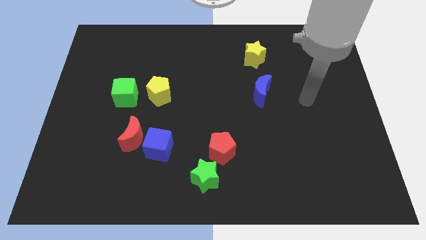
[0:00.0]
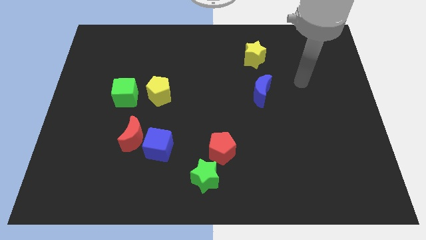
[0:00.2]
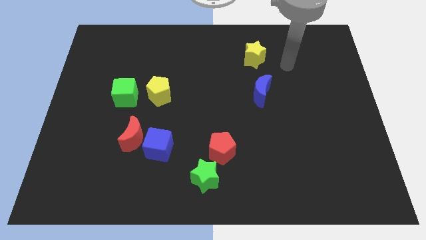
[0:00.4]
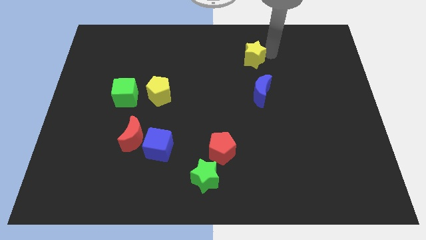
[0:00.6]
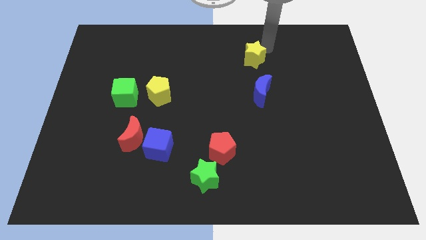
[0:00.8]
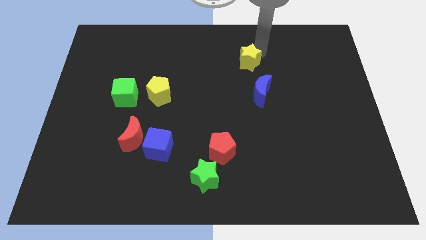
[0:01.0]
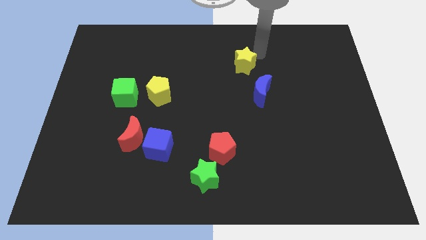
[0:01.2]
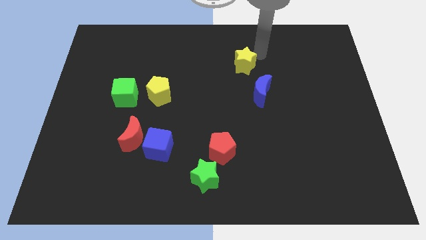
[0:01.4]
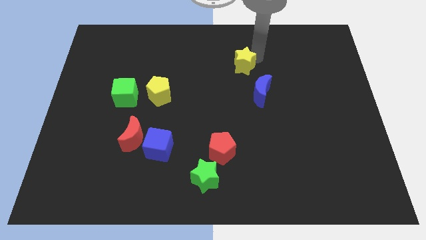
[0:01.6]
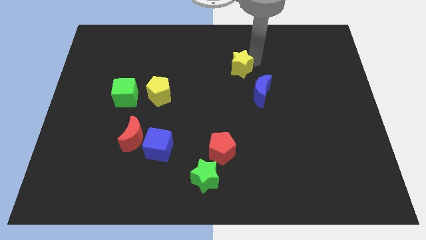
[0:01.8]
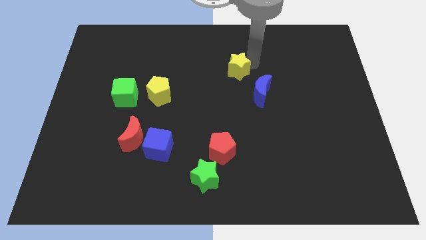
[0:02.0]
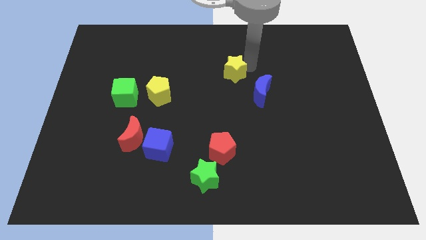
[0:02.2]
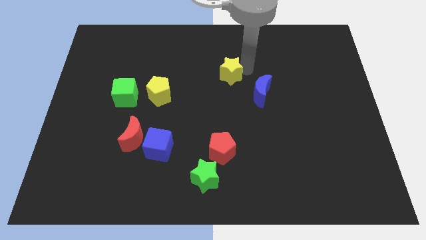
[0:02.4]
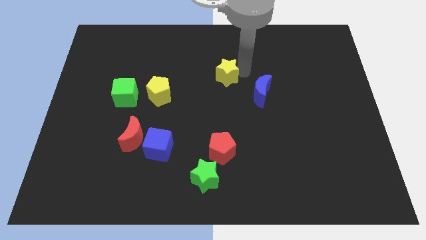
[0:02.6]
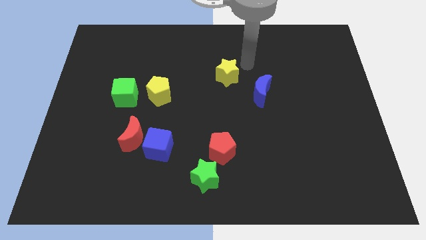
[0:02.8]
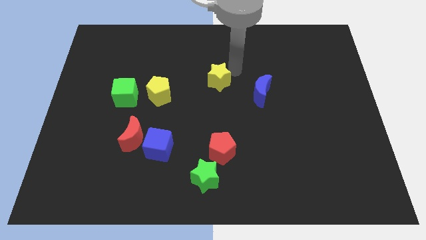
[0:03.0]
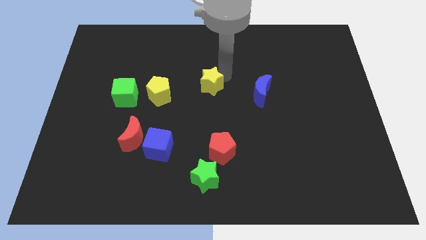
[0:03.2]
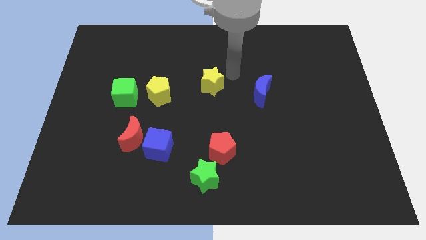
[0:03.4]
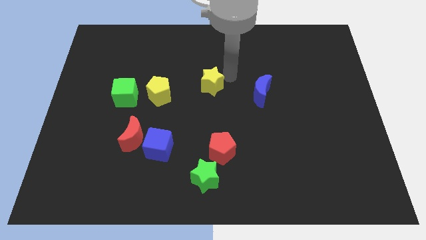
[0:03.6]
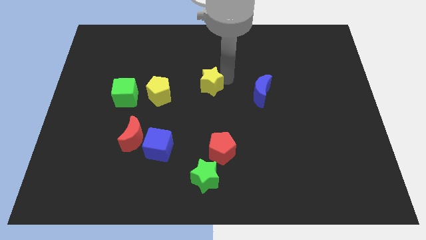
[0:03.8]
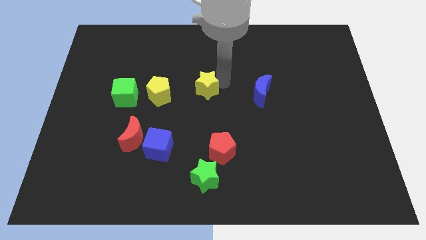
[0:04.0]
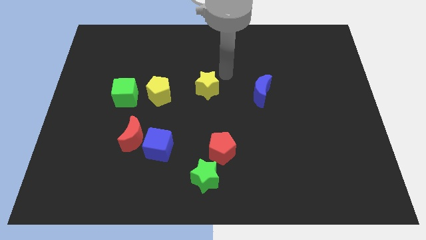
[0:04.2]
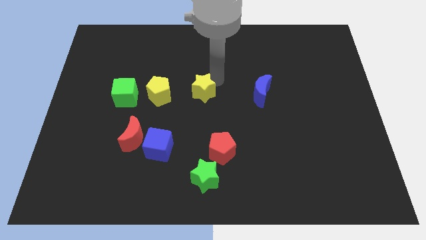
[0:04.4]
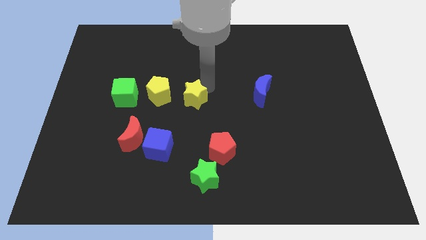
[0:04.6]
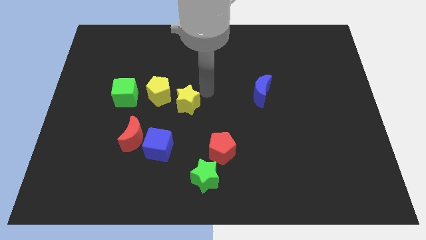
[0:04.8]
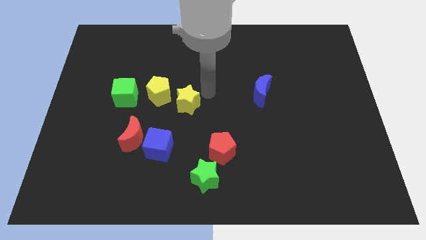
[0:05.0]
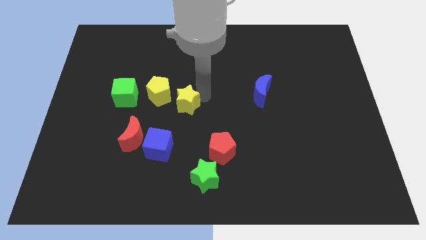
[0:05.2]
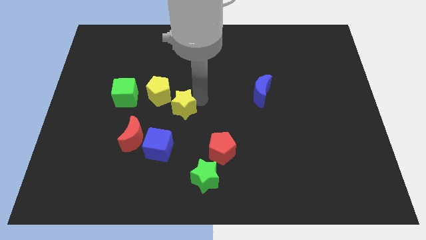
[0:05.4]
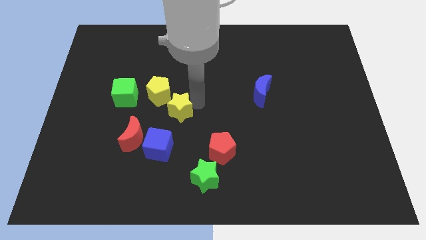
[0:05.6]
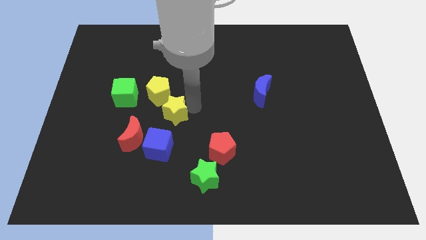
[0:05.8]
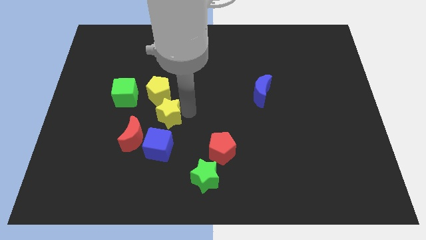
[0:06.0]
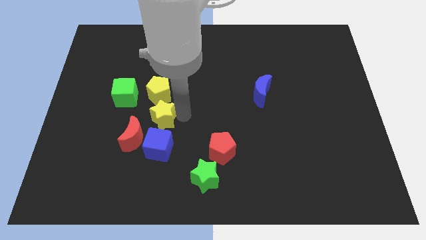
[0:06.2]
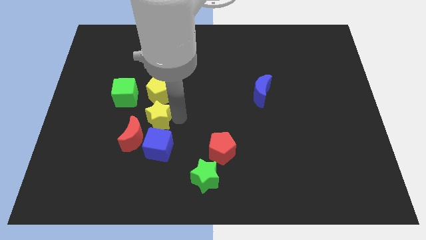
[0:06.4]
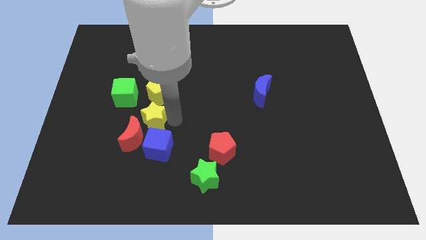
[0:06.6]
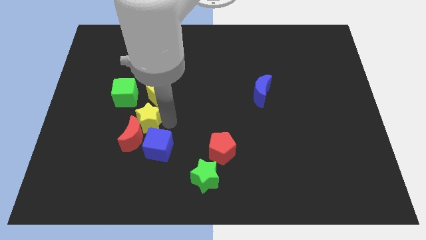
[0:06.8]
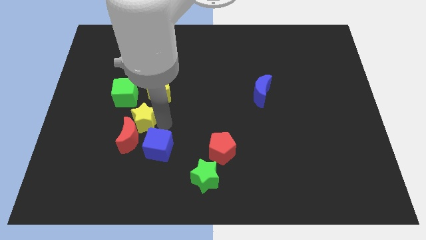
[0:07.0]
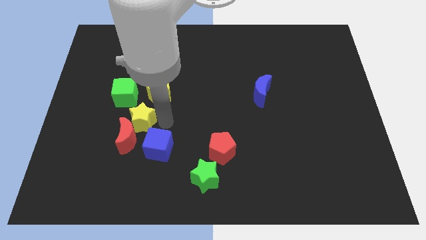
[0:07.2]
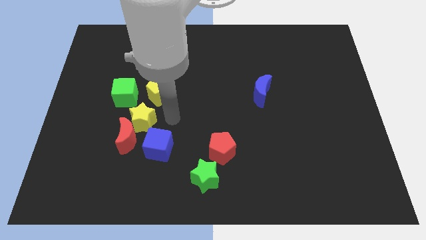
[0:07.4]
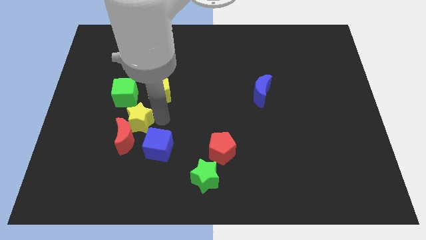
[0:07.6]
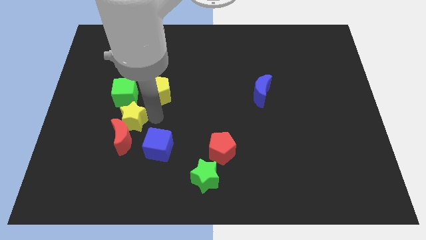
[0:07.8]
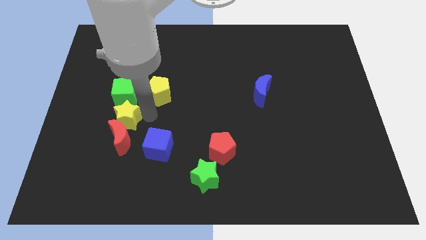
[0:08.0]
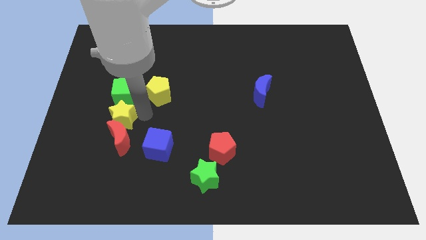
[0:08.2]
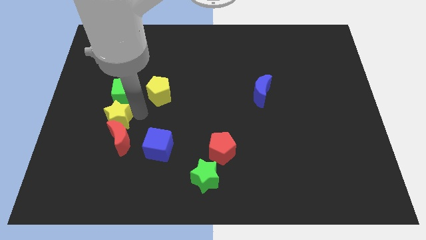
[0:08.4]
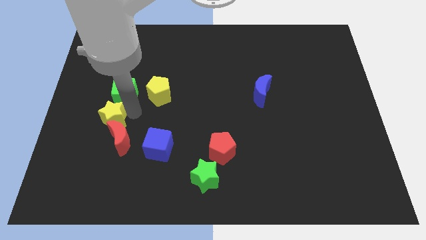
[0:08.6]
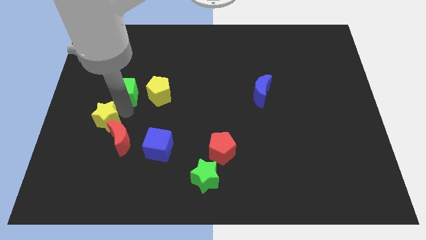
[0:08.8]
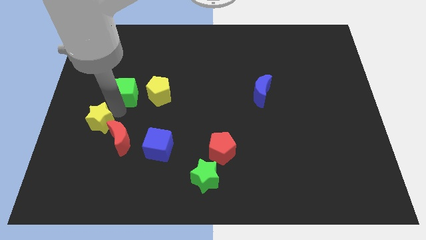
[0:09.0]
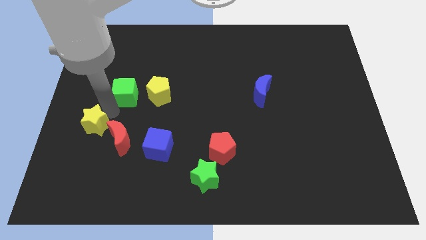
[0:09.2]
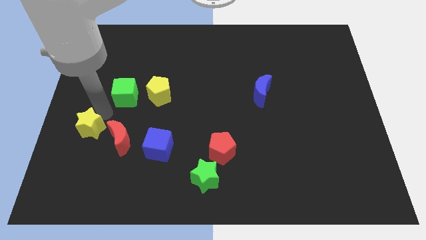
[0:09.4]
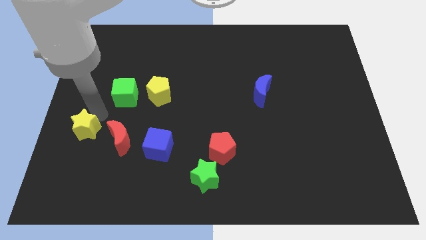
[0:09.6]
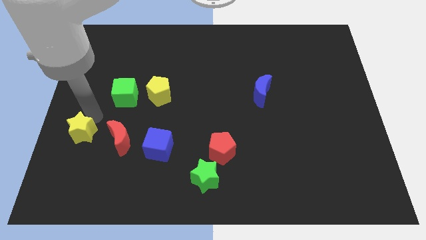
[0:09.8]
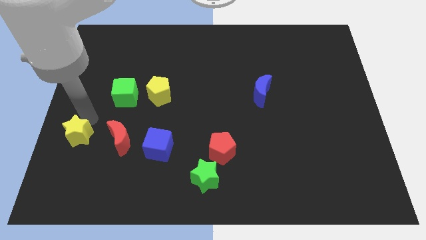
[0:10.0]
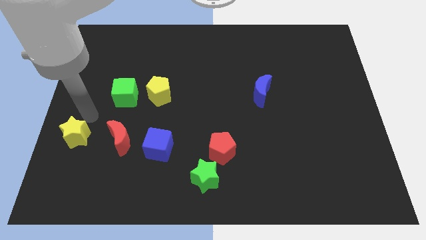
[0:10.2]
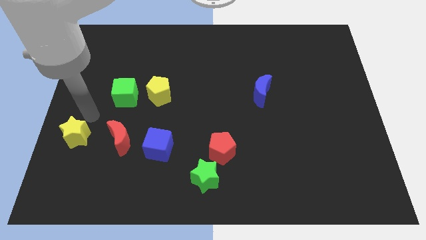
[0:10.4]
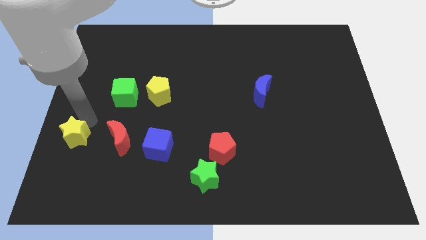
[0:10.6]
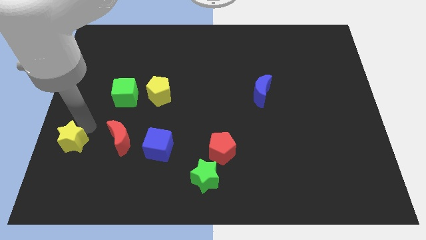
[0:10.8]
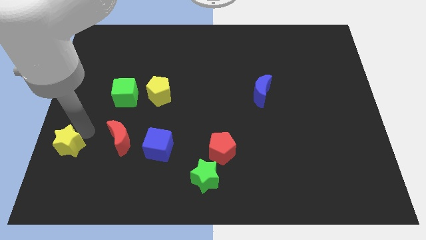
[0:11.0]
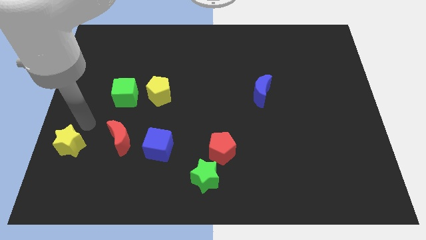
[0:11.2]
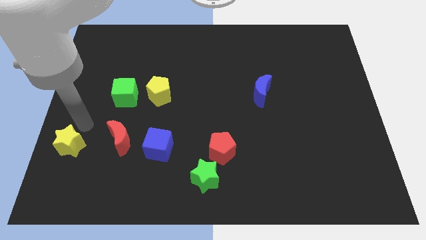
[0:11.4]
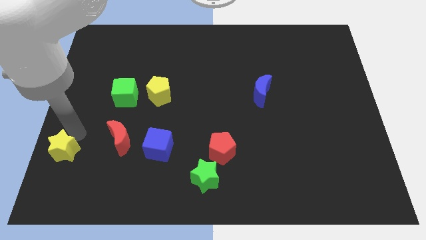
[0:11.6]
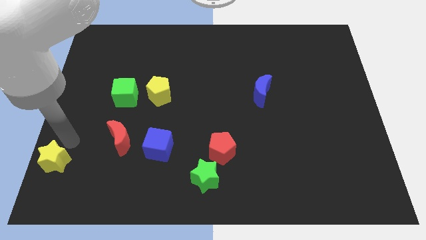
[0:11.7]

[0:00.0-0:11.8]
put the yellow star to the bottom left of the board
